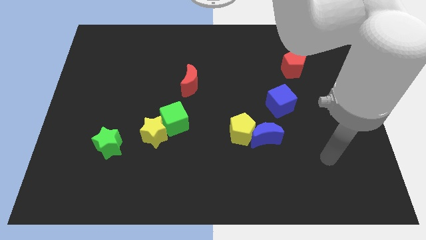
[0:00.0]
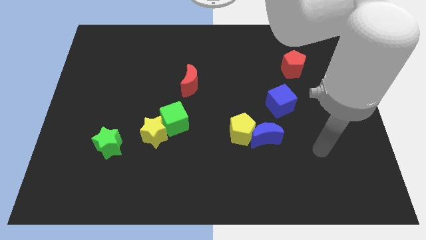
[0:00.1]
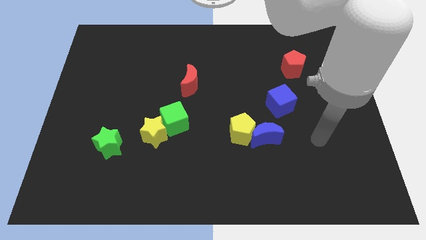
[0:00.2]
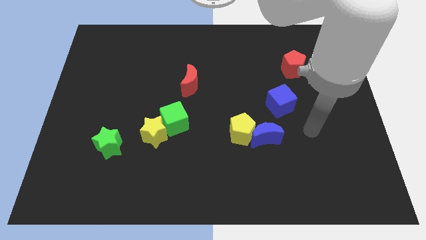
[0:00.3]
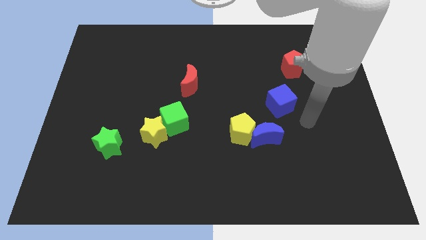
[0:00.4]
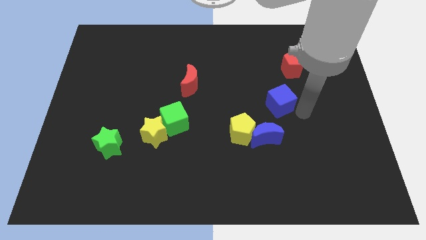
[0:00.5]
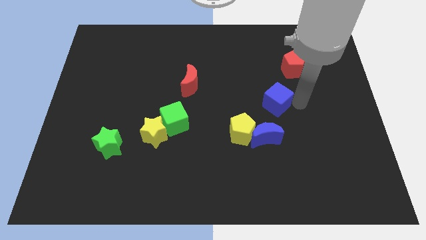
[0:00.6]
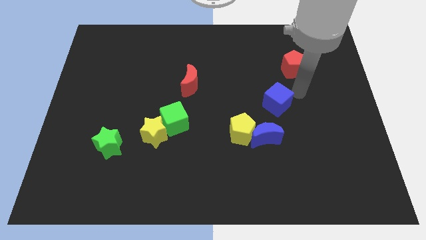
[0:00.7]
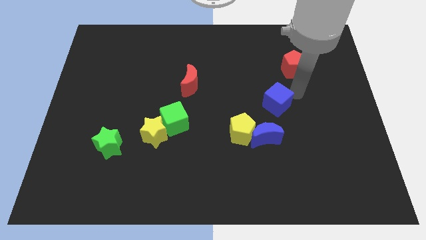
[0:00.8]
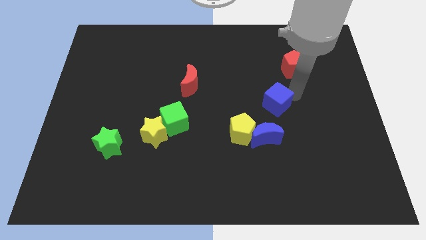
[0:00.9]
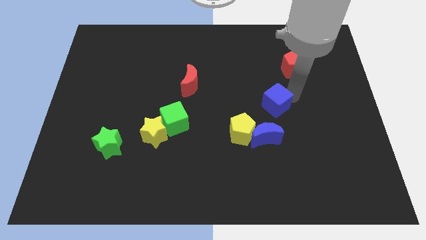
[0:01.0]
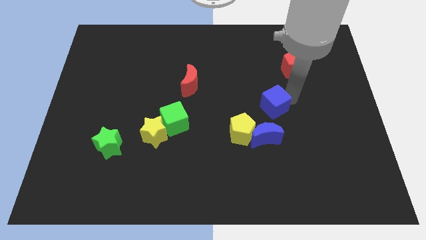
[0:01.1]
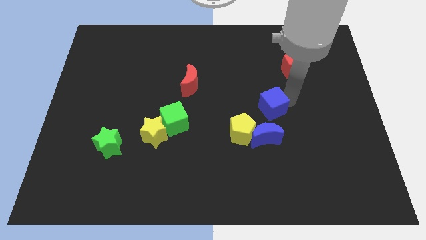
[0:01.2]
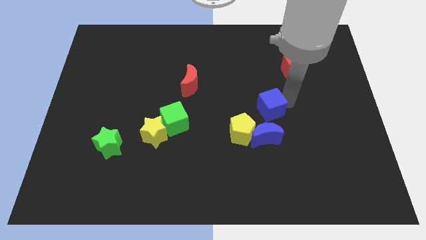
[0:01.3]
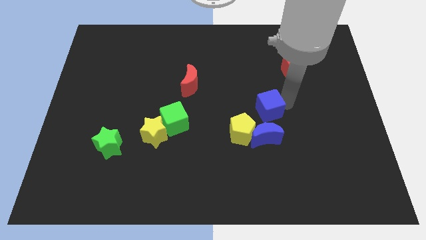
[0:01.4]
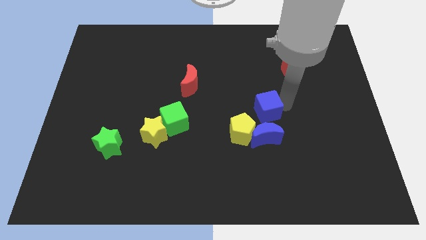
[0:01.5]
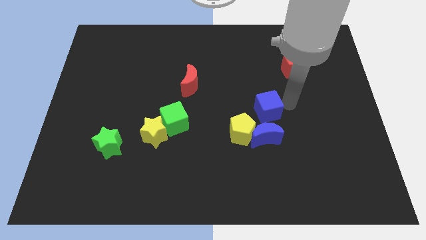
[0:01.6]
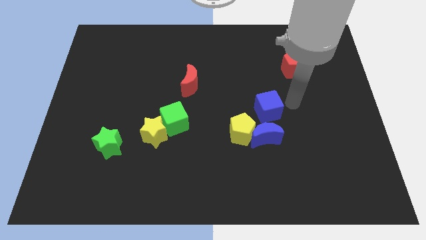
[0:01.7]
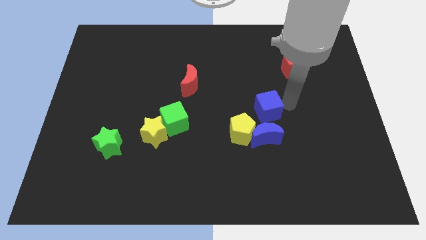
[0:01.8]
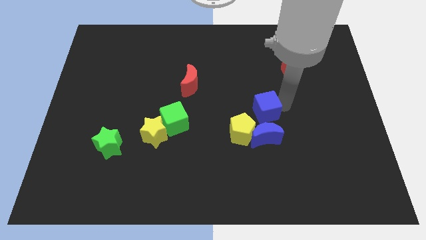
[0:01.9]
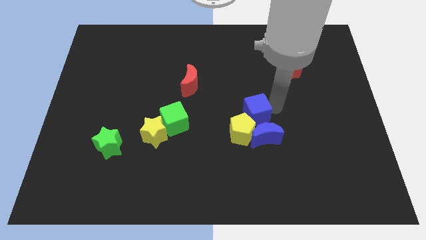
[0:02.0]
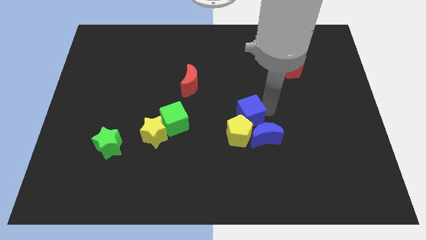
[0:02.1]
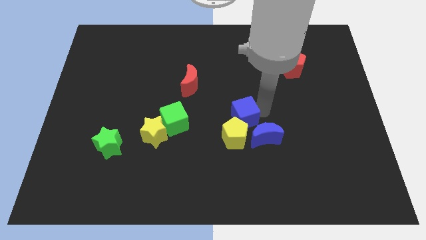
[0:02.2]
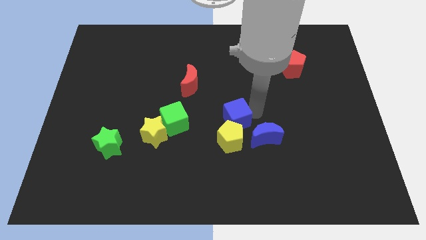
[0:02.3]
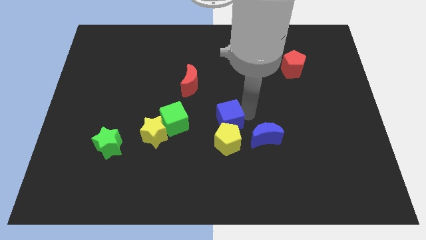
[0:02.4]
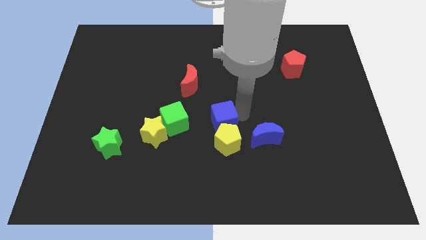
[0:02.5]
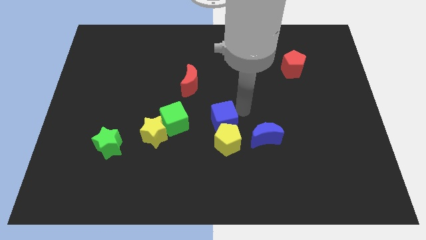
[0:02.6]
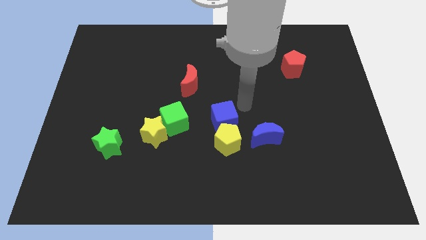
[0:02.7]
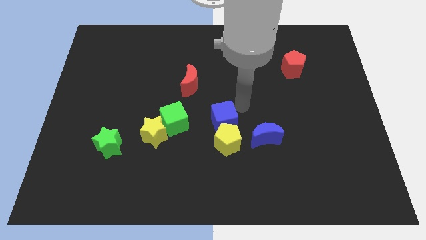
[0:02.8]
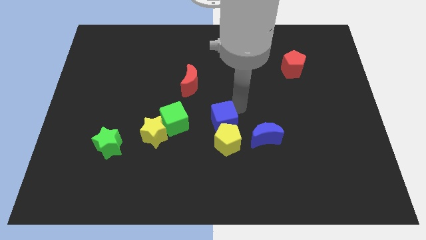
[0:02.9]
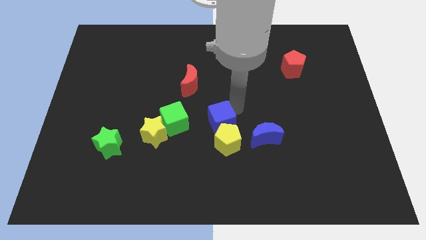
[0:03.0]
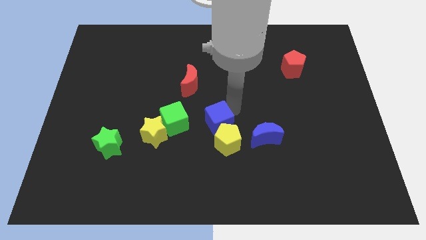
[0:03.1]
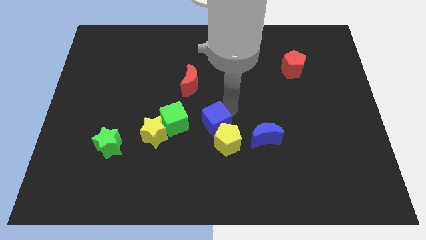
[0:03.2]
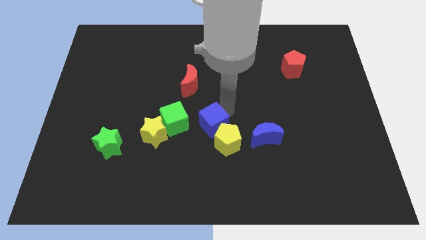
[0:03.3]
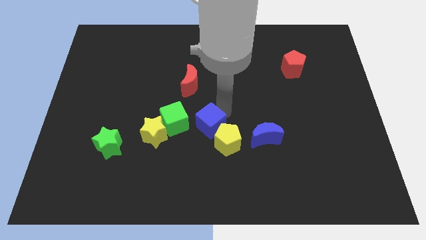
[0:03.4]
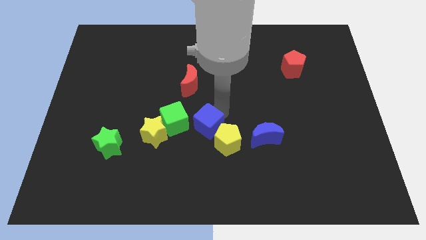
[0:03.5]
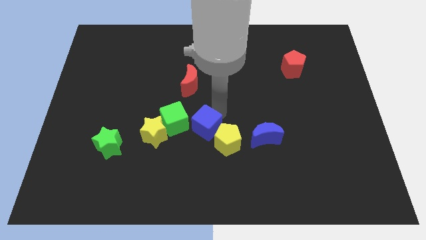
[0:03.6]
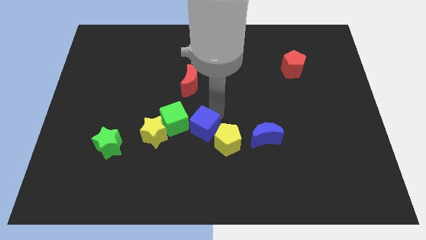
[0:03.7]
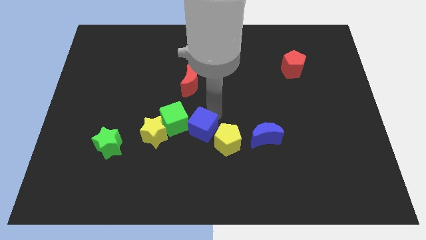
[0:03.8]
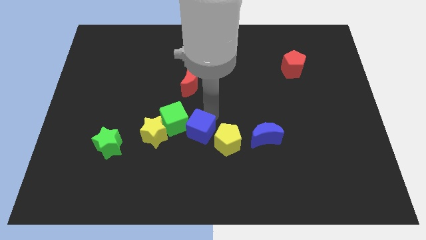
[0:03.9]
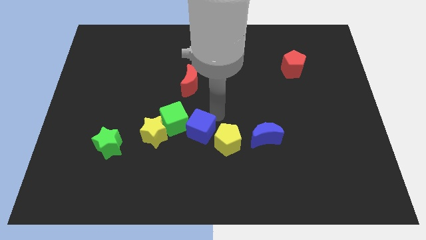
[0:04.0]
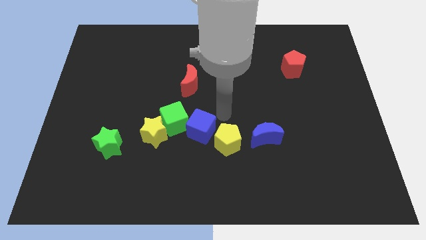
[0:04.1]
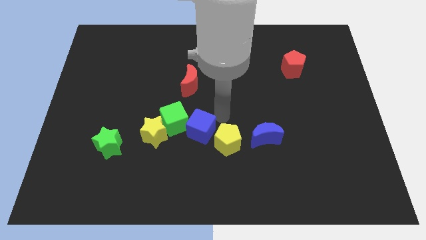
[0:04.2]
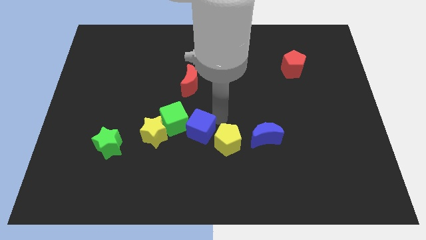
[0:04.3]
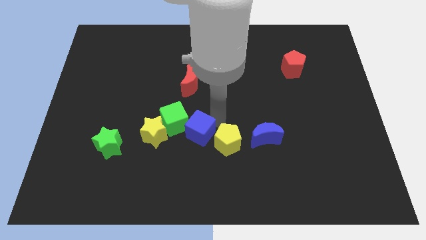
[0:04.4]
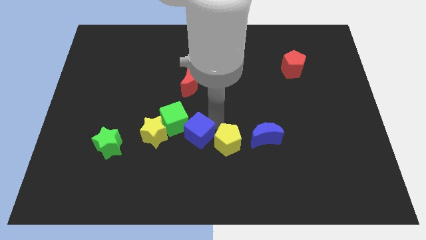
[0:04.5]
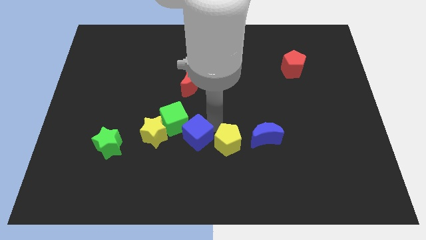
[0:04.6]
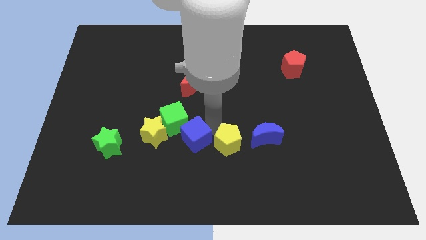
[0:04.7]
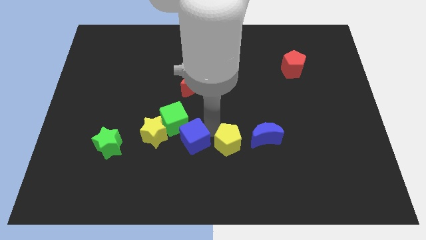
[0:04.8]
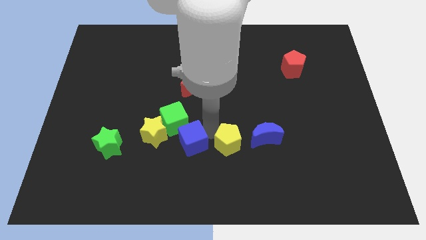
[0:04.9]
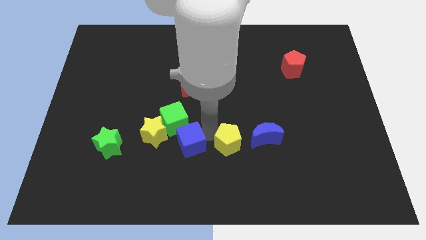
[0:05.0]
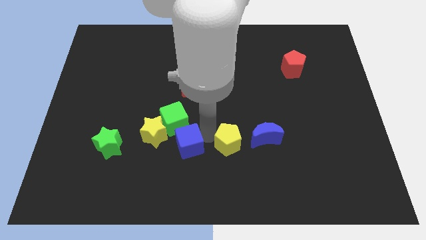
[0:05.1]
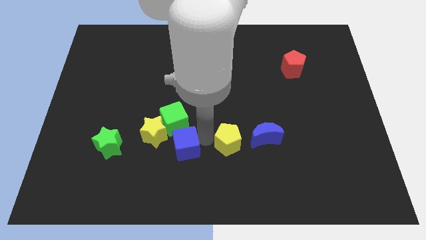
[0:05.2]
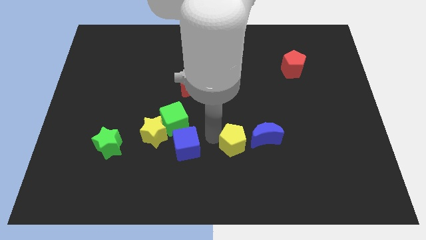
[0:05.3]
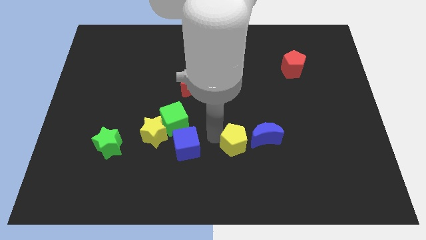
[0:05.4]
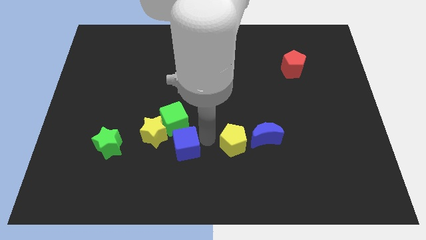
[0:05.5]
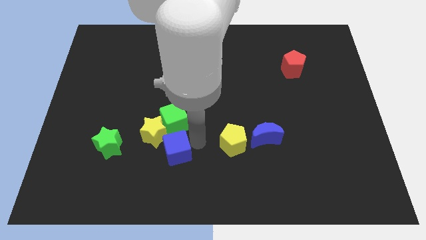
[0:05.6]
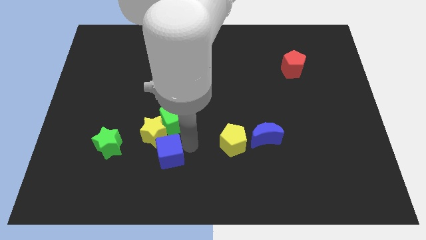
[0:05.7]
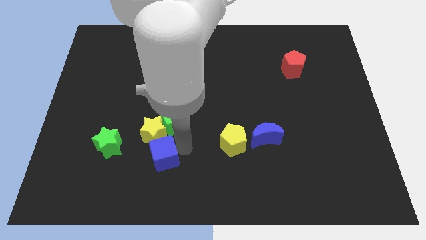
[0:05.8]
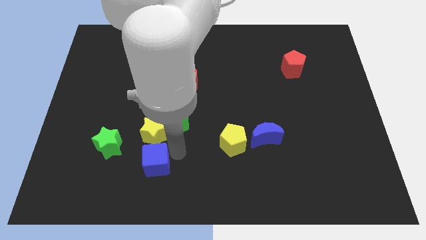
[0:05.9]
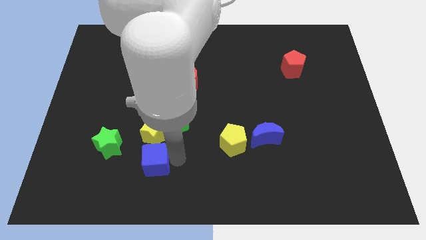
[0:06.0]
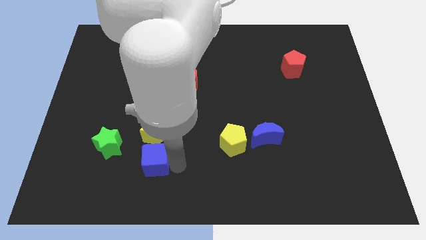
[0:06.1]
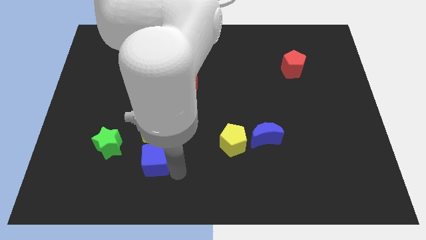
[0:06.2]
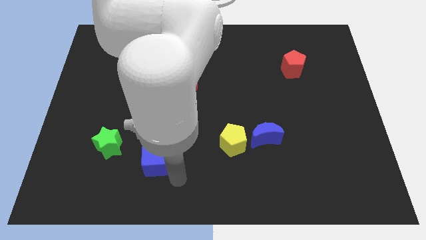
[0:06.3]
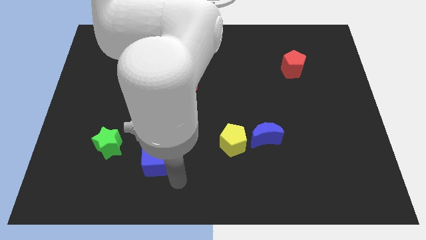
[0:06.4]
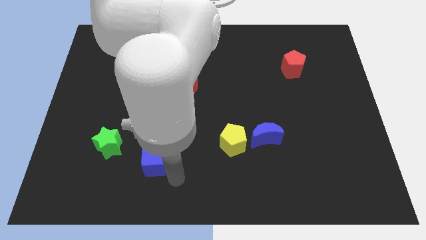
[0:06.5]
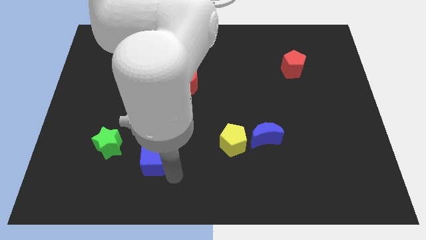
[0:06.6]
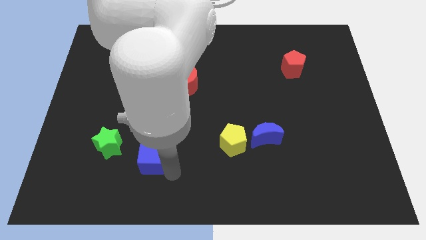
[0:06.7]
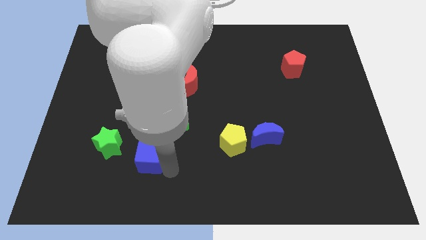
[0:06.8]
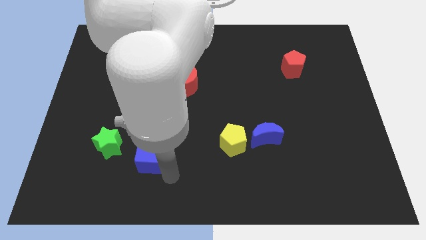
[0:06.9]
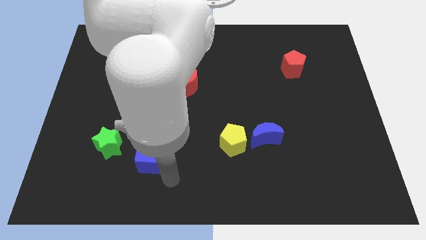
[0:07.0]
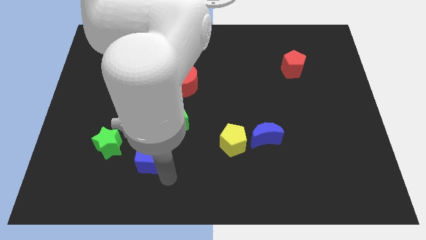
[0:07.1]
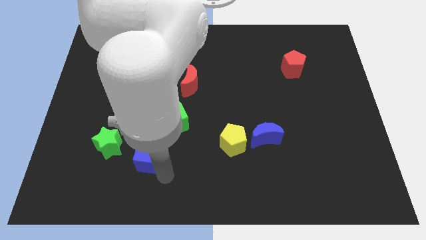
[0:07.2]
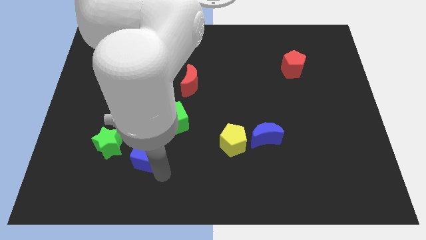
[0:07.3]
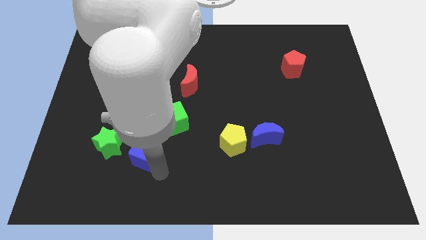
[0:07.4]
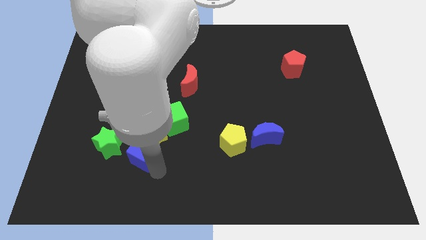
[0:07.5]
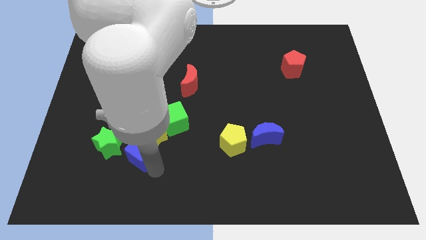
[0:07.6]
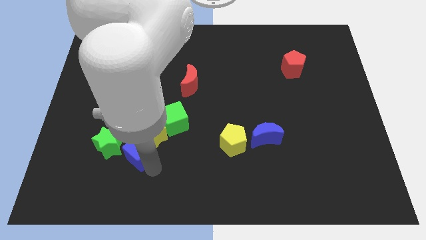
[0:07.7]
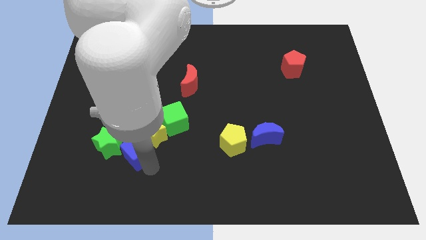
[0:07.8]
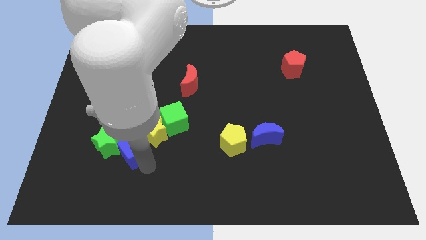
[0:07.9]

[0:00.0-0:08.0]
put the blue cube towards the green star
